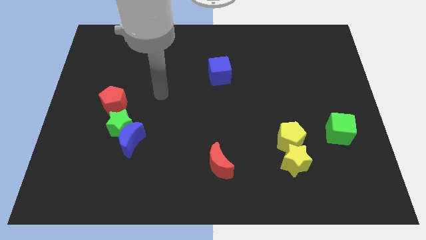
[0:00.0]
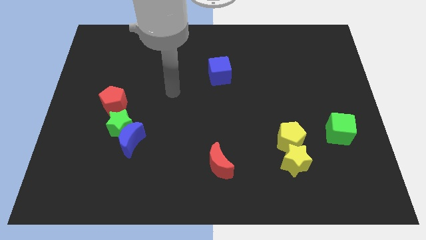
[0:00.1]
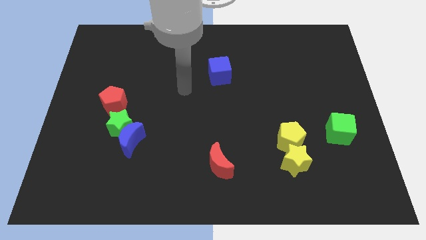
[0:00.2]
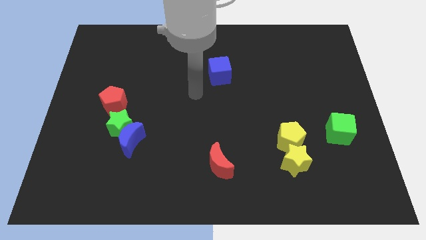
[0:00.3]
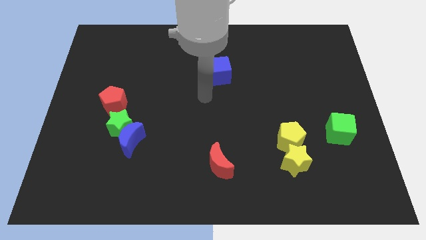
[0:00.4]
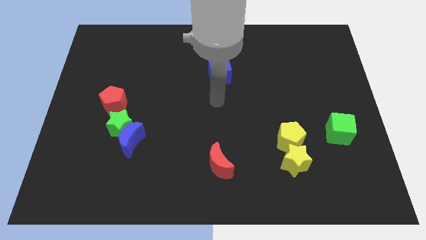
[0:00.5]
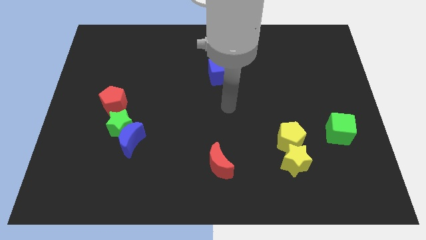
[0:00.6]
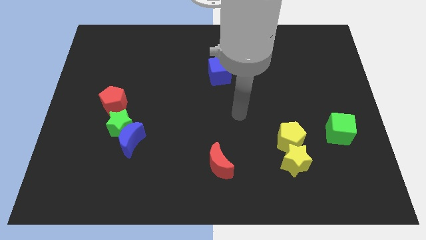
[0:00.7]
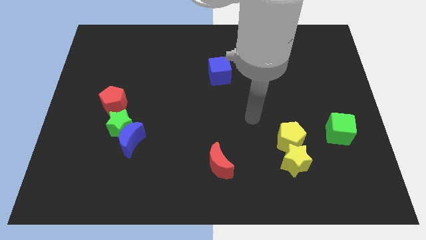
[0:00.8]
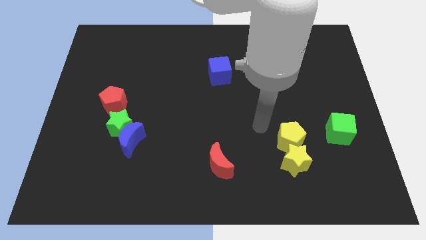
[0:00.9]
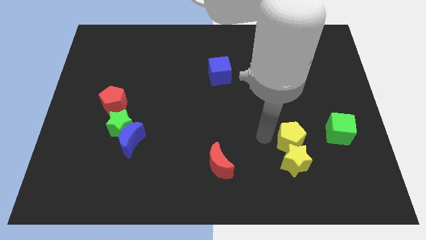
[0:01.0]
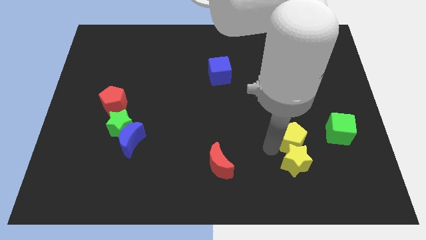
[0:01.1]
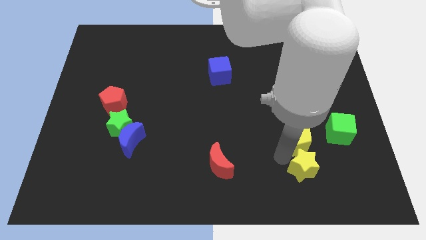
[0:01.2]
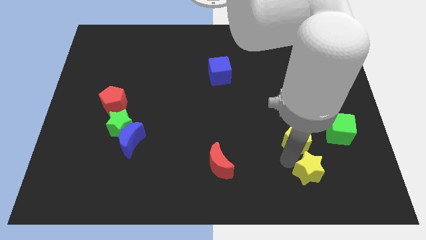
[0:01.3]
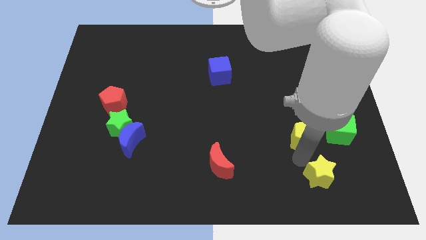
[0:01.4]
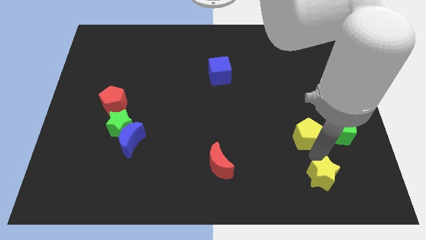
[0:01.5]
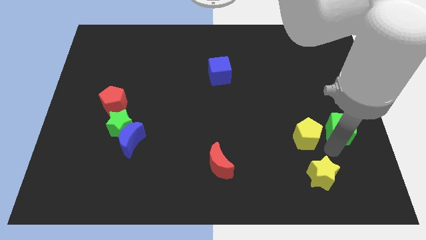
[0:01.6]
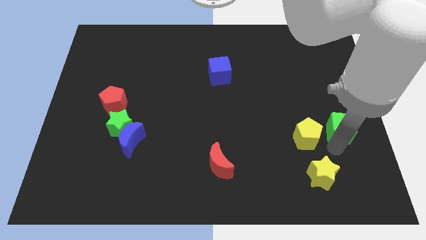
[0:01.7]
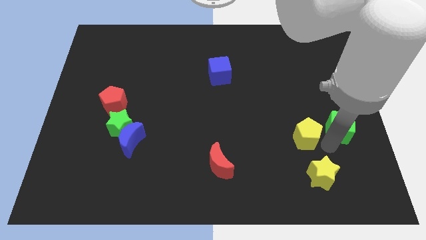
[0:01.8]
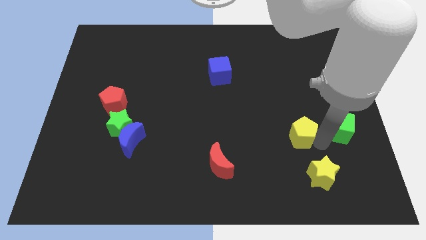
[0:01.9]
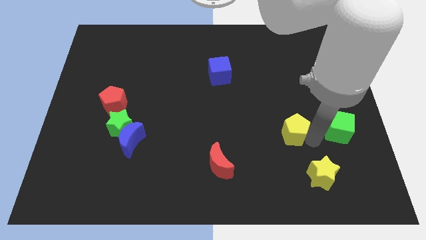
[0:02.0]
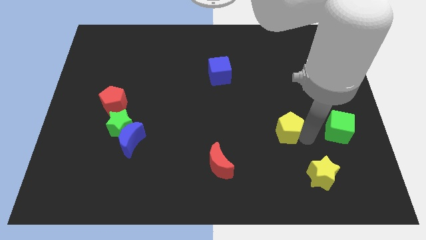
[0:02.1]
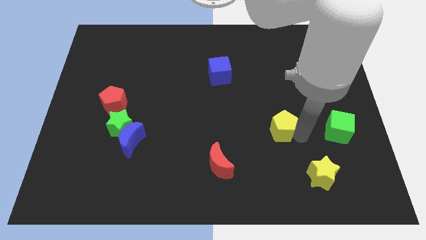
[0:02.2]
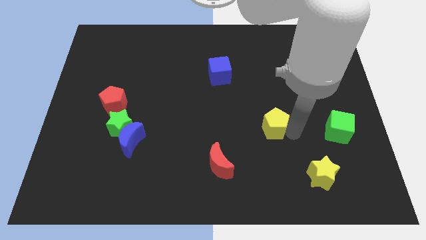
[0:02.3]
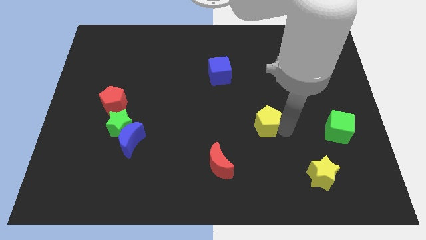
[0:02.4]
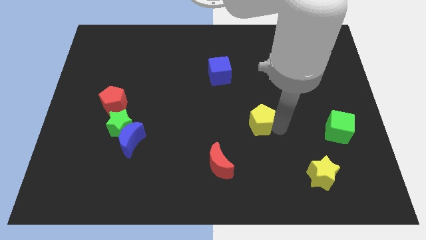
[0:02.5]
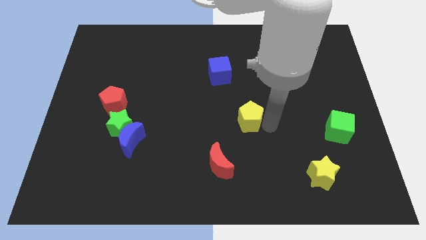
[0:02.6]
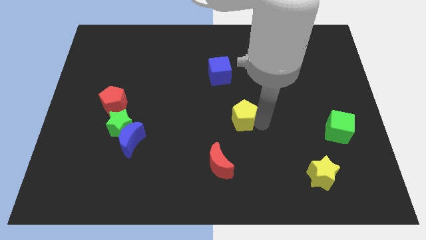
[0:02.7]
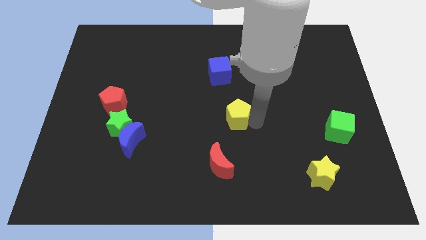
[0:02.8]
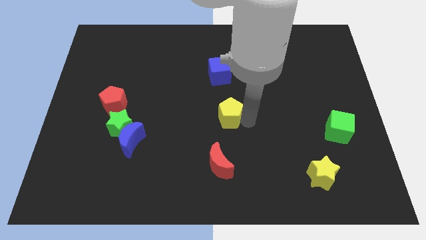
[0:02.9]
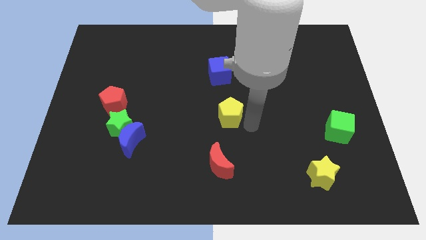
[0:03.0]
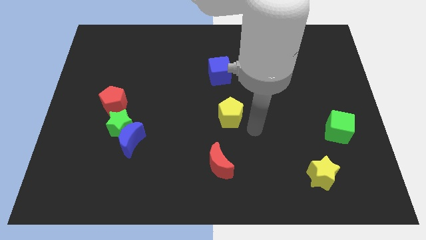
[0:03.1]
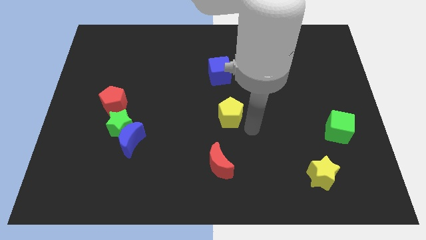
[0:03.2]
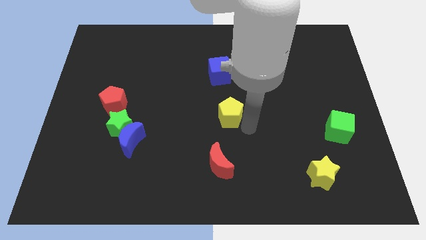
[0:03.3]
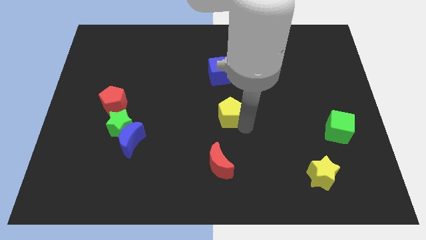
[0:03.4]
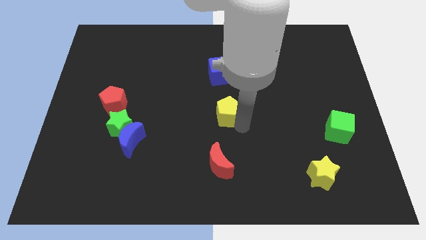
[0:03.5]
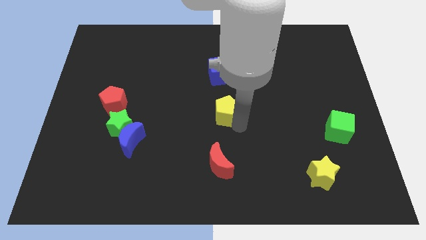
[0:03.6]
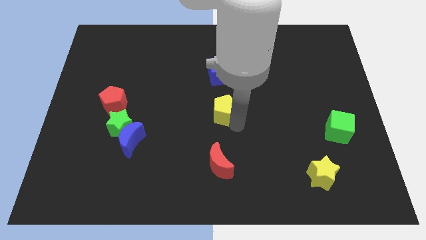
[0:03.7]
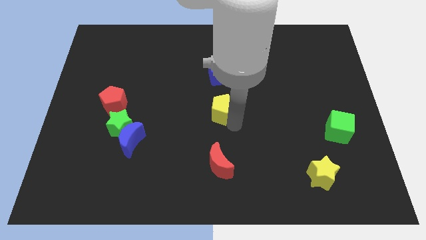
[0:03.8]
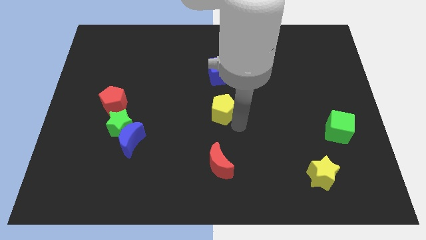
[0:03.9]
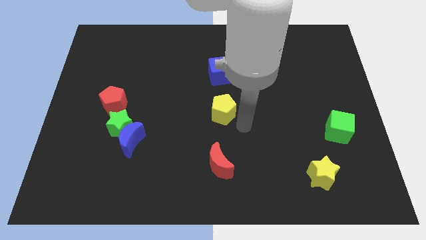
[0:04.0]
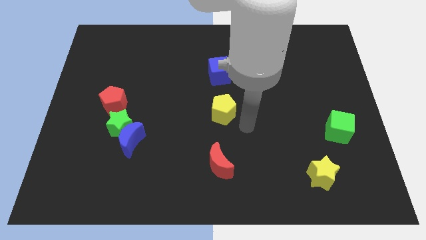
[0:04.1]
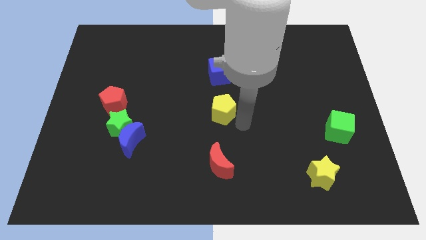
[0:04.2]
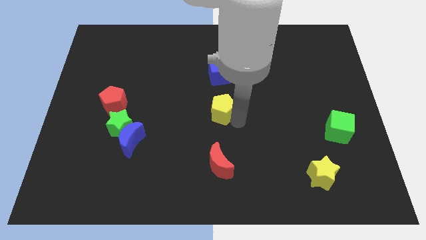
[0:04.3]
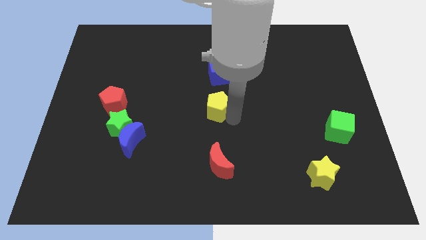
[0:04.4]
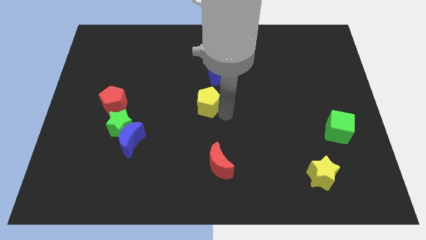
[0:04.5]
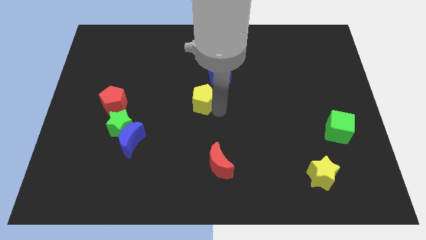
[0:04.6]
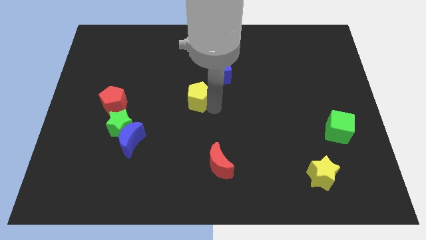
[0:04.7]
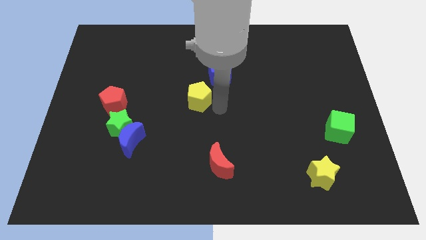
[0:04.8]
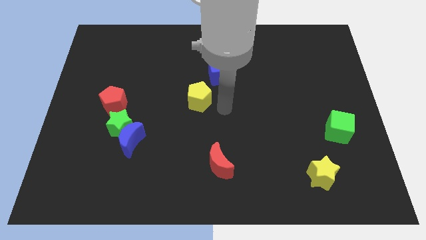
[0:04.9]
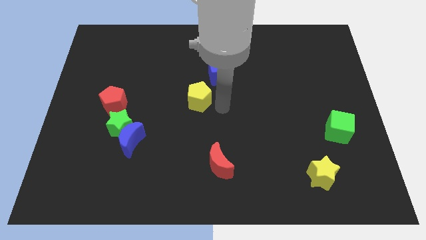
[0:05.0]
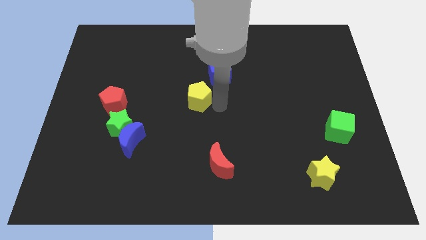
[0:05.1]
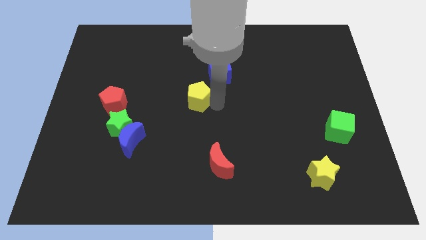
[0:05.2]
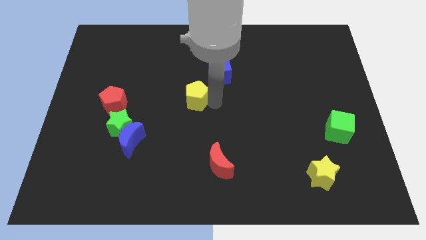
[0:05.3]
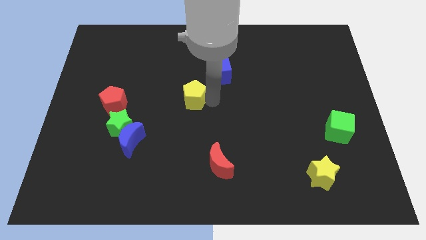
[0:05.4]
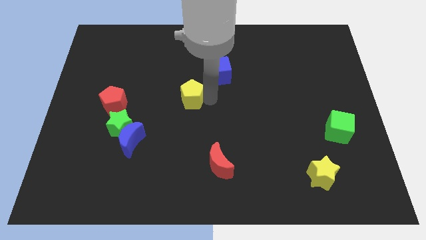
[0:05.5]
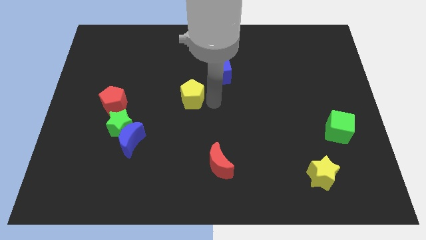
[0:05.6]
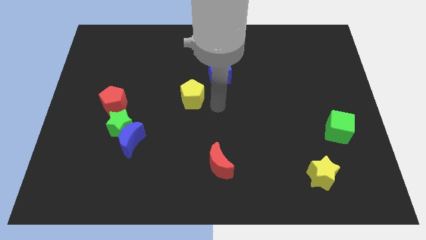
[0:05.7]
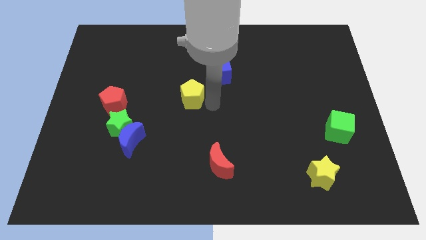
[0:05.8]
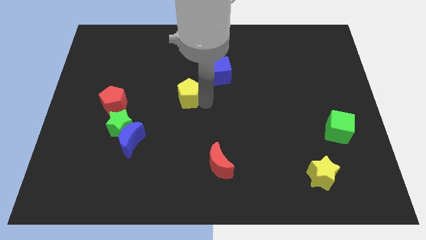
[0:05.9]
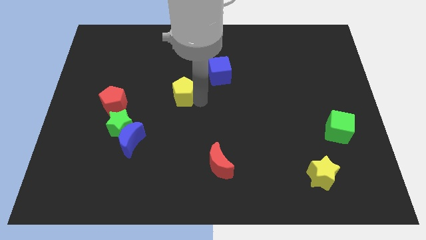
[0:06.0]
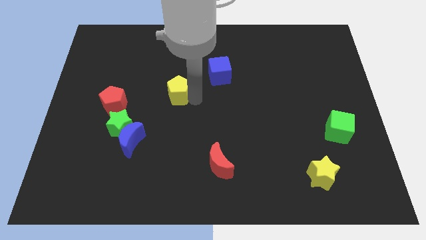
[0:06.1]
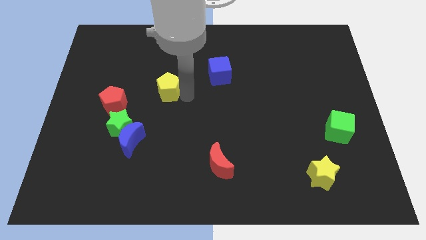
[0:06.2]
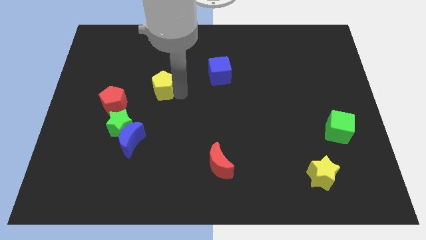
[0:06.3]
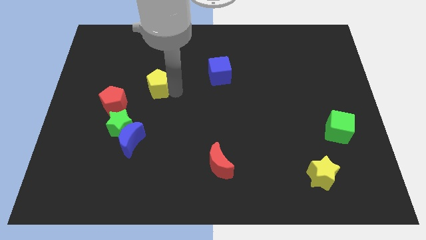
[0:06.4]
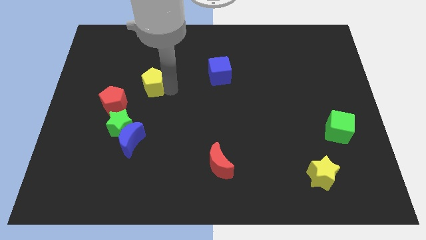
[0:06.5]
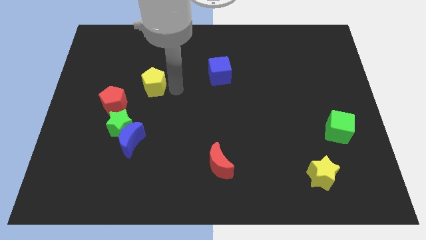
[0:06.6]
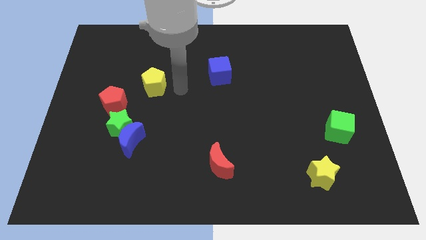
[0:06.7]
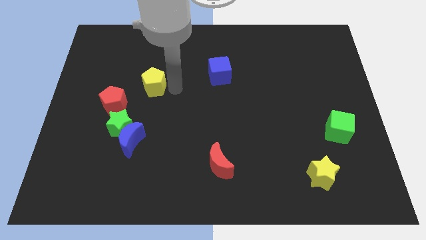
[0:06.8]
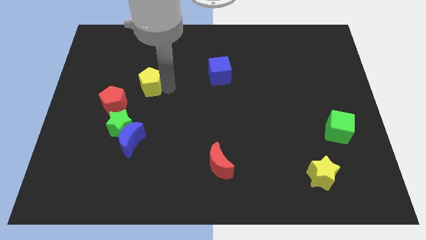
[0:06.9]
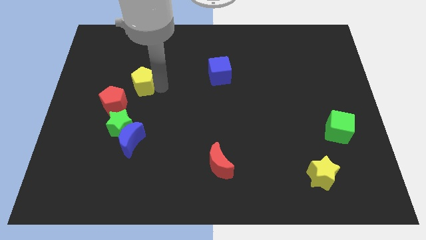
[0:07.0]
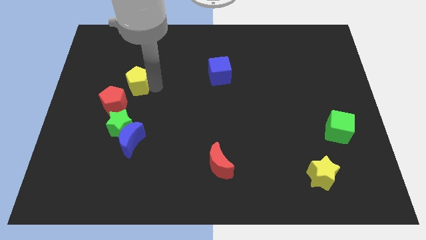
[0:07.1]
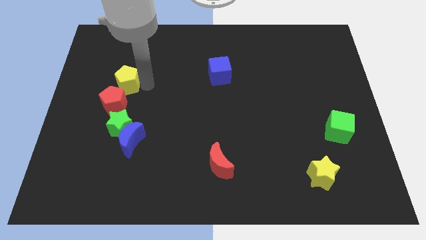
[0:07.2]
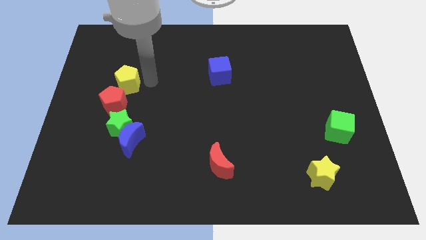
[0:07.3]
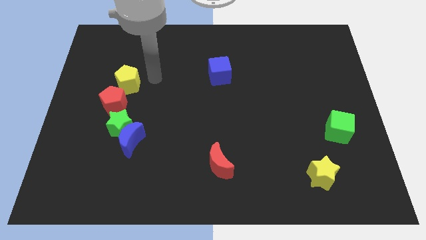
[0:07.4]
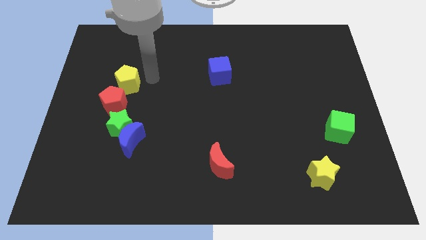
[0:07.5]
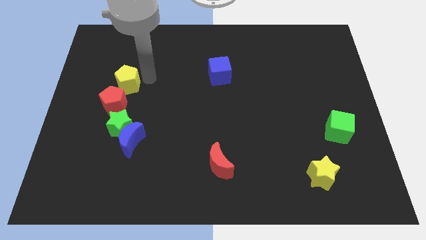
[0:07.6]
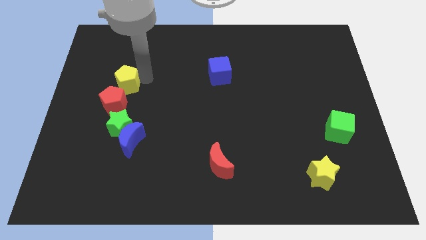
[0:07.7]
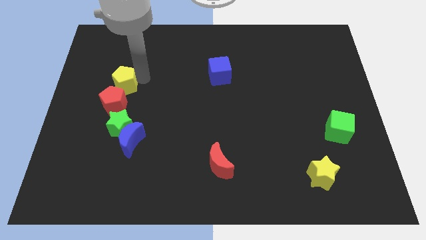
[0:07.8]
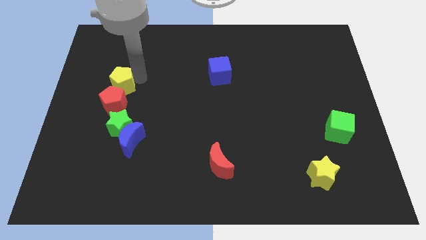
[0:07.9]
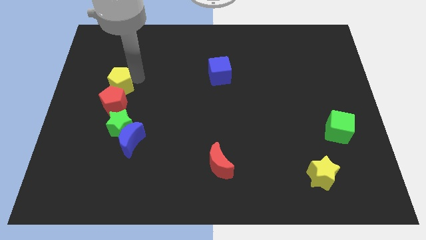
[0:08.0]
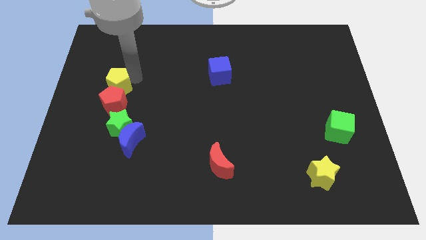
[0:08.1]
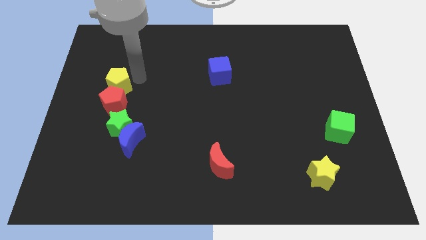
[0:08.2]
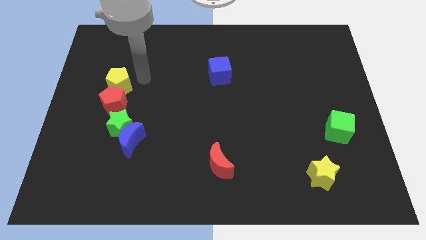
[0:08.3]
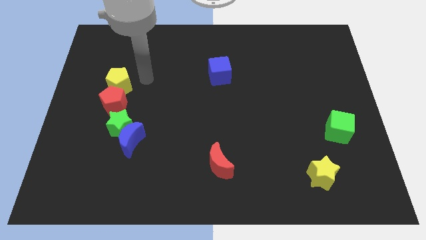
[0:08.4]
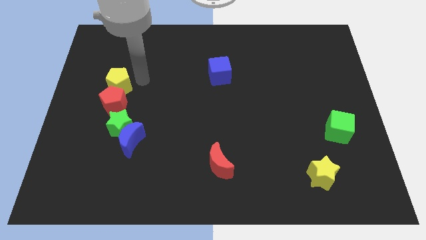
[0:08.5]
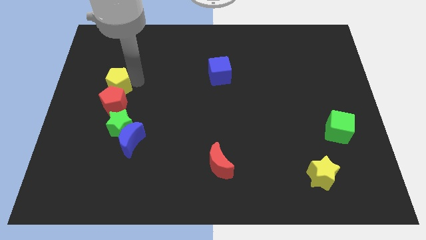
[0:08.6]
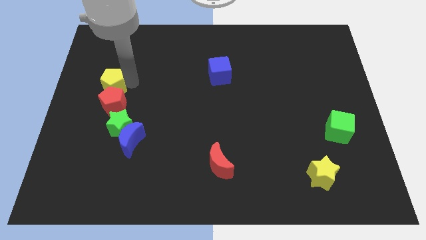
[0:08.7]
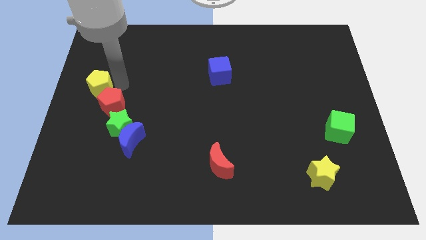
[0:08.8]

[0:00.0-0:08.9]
put the yellow pentagon to the center left
